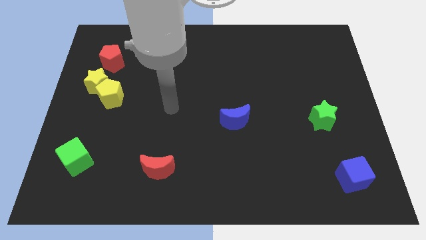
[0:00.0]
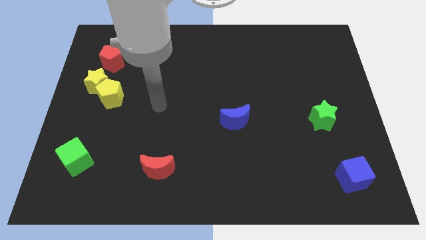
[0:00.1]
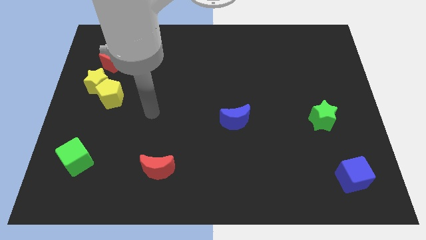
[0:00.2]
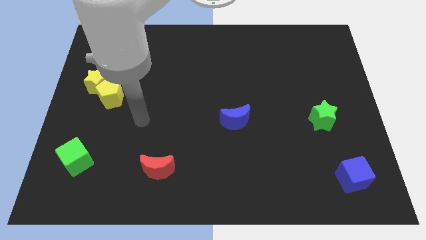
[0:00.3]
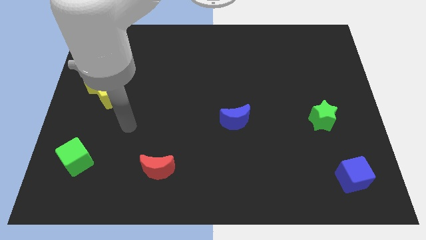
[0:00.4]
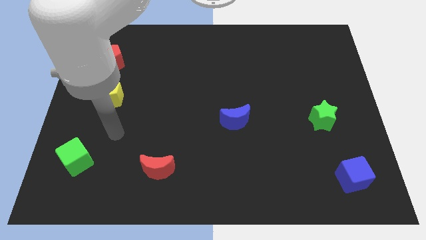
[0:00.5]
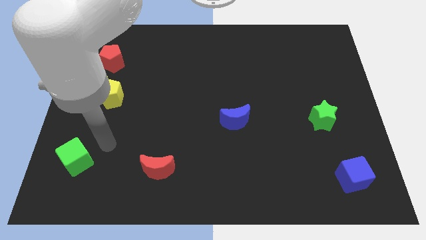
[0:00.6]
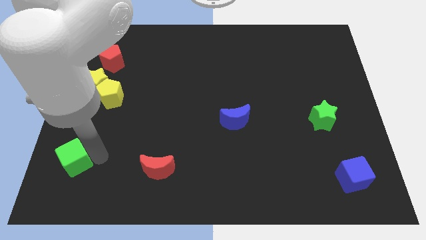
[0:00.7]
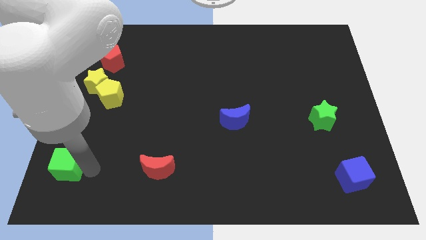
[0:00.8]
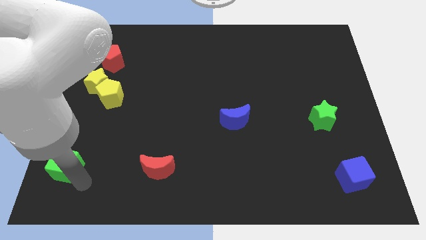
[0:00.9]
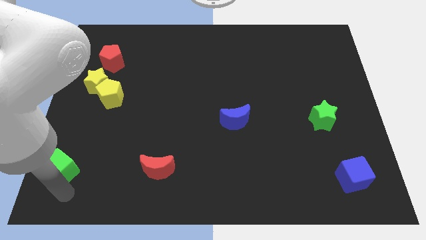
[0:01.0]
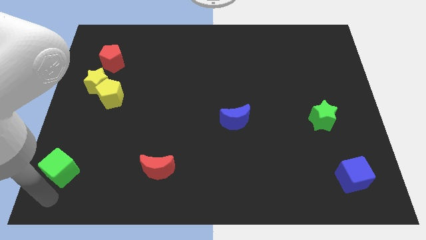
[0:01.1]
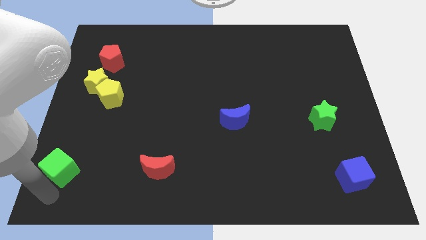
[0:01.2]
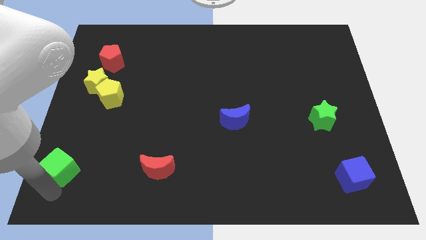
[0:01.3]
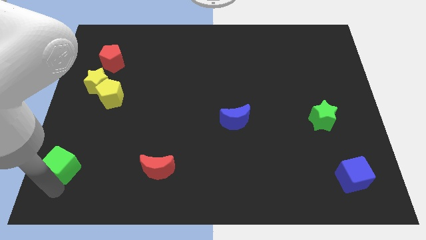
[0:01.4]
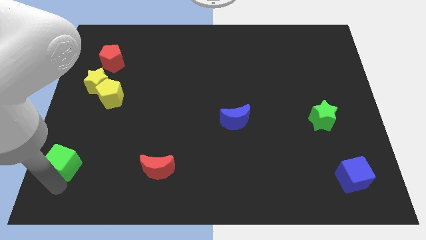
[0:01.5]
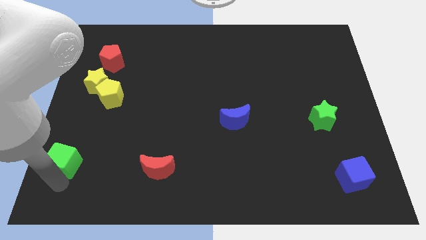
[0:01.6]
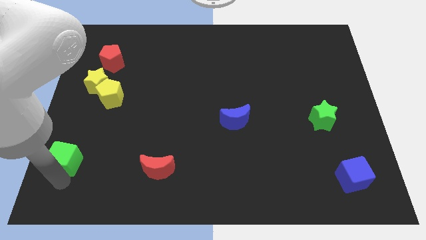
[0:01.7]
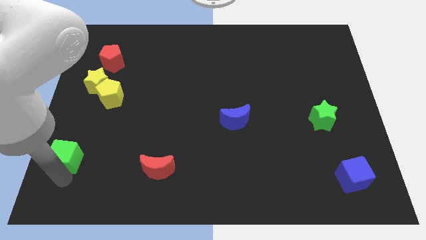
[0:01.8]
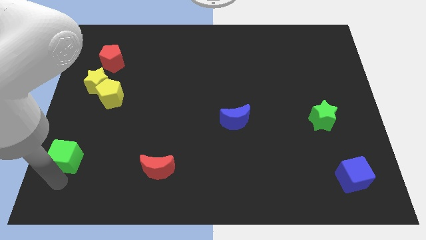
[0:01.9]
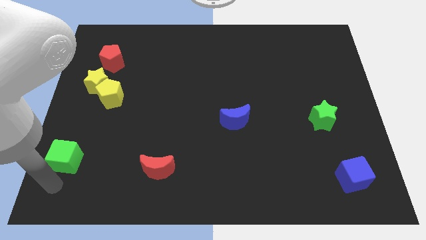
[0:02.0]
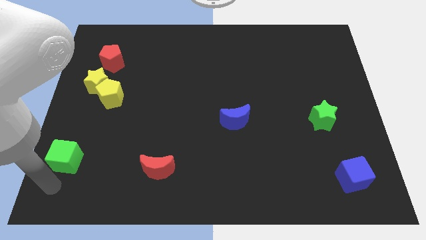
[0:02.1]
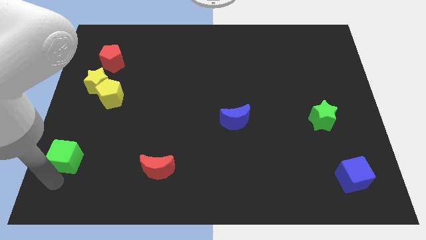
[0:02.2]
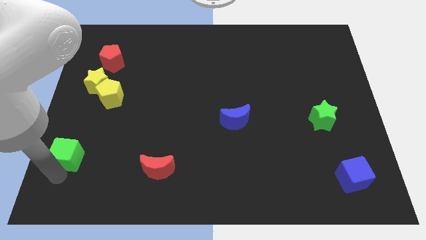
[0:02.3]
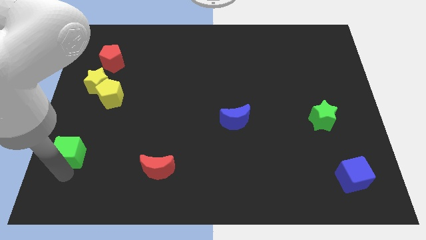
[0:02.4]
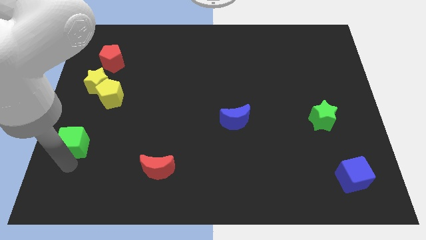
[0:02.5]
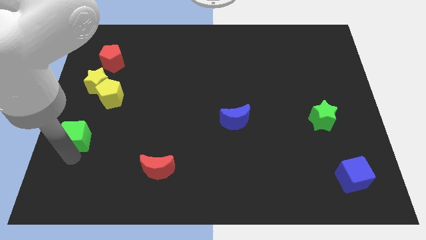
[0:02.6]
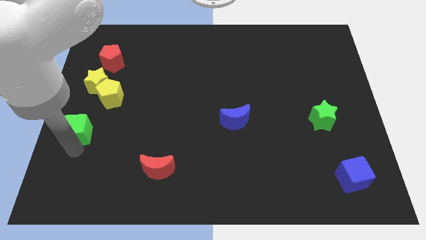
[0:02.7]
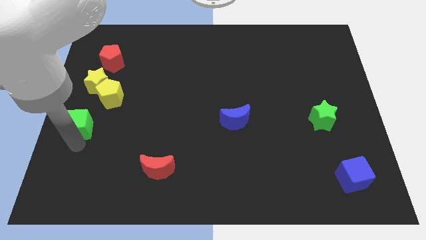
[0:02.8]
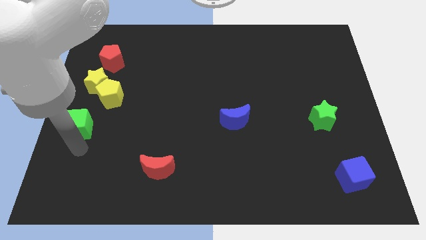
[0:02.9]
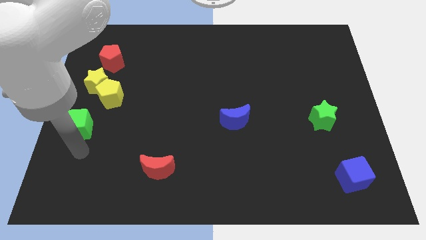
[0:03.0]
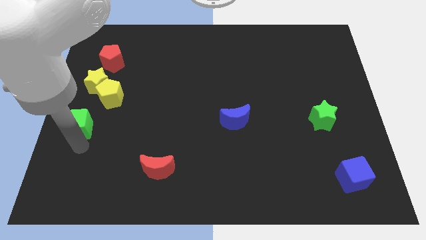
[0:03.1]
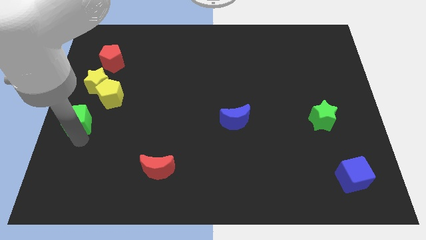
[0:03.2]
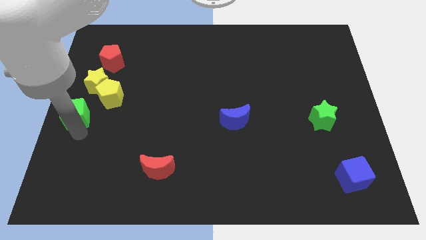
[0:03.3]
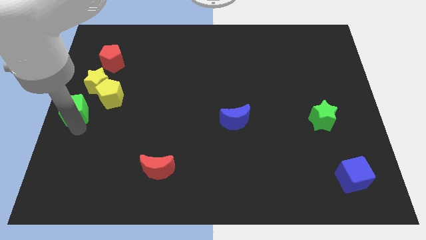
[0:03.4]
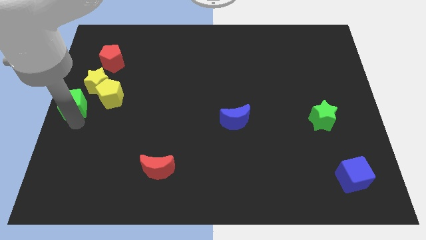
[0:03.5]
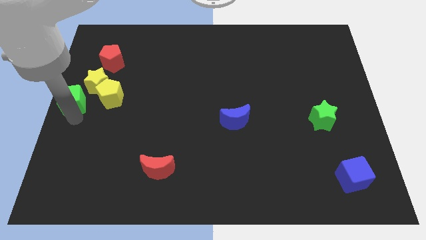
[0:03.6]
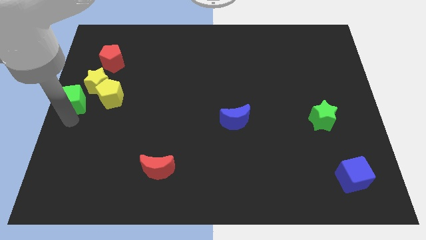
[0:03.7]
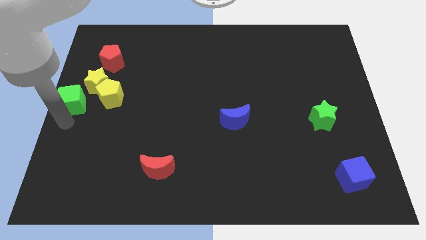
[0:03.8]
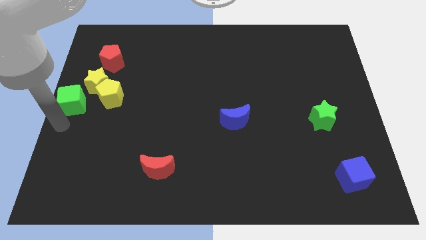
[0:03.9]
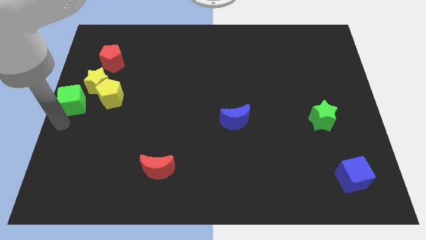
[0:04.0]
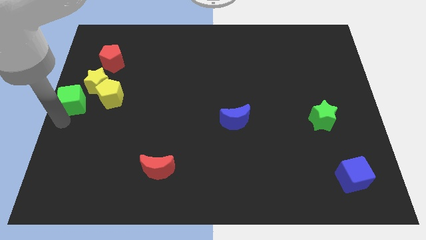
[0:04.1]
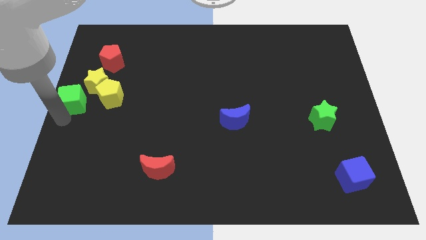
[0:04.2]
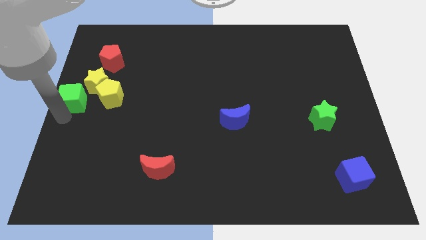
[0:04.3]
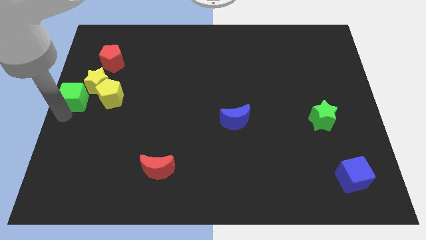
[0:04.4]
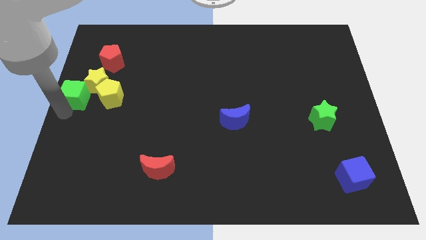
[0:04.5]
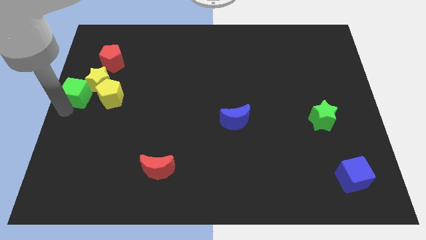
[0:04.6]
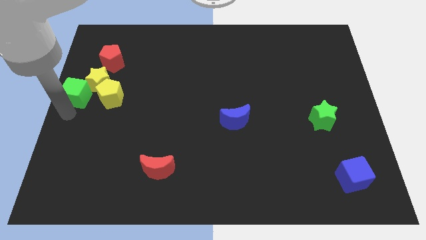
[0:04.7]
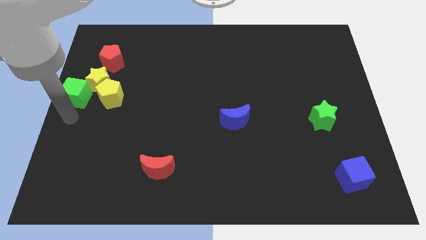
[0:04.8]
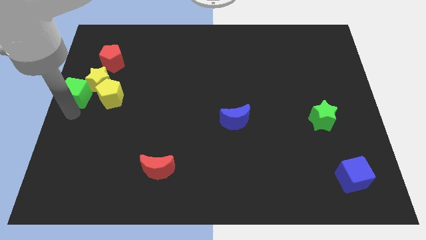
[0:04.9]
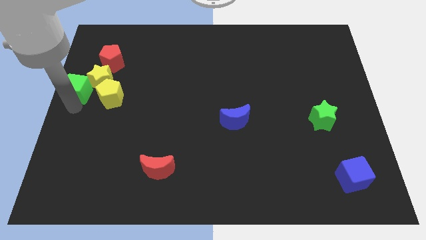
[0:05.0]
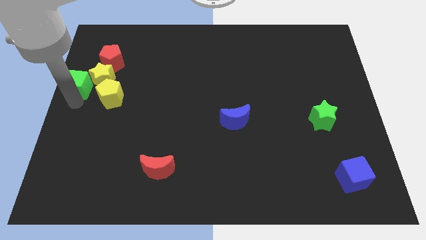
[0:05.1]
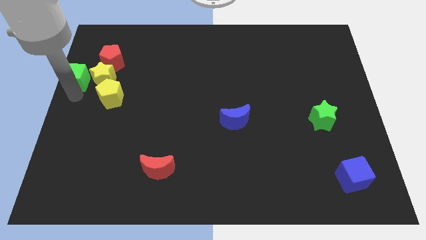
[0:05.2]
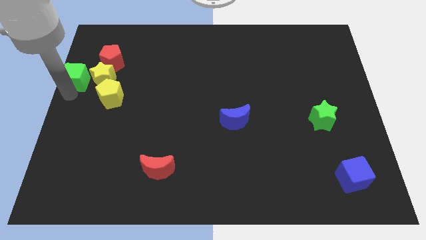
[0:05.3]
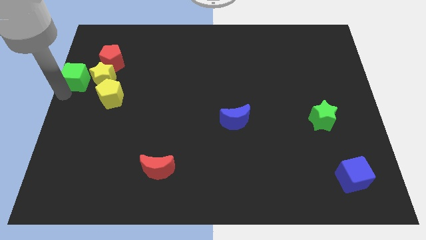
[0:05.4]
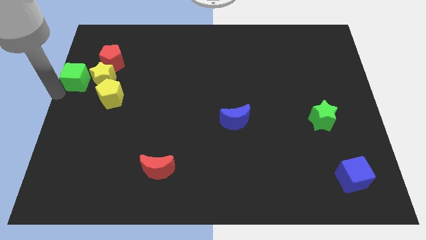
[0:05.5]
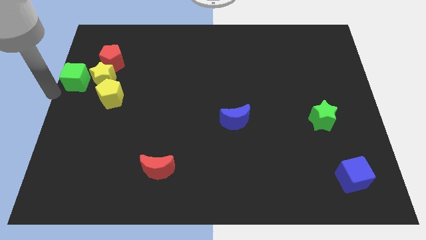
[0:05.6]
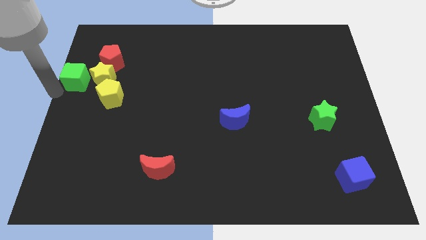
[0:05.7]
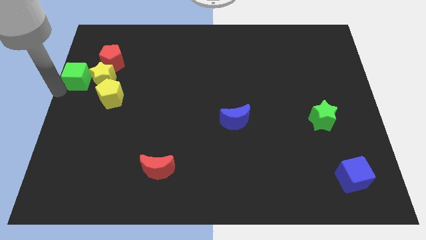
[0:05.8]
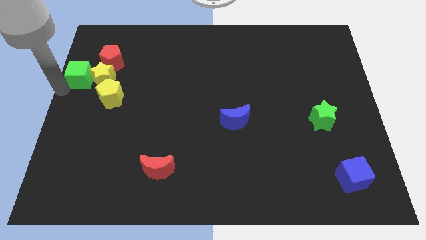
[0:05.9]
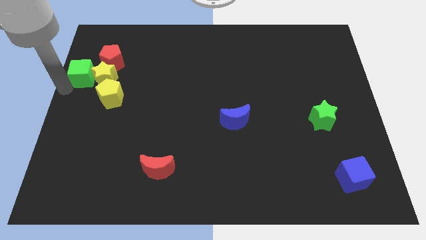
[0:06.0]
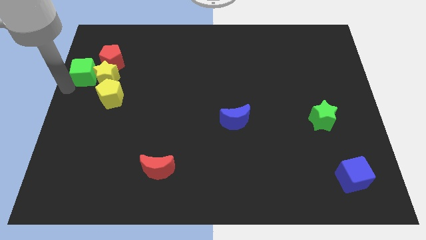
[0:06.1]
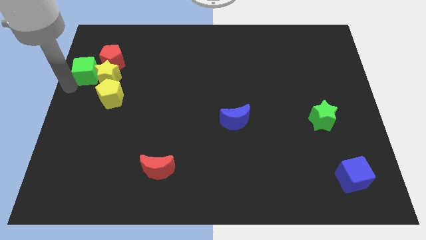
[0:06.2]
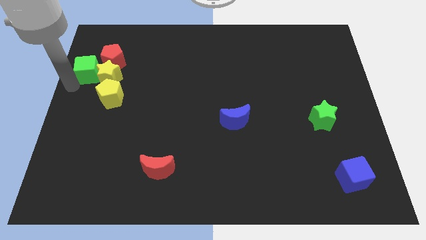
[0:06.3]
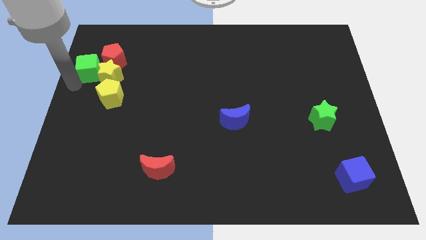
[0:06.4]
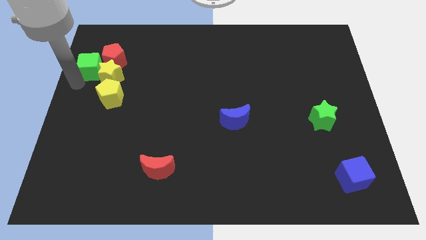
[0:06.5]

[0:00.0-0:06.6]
slide the green cube next to the red pentagon
